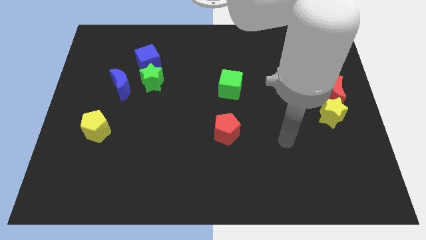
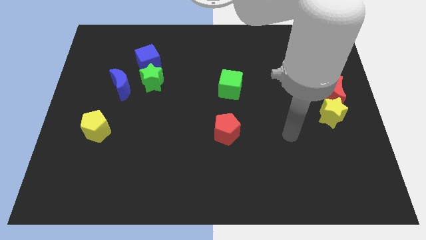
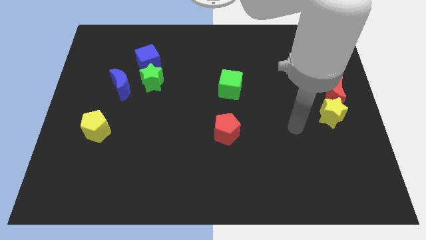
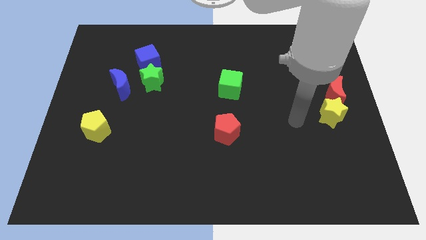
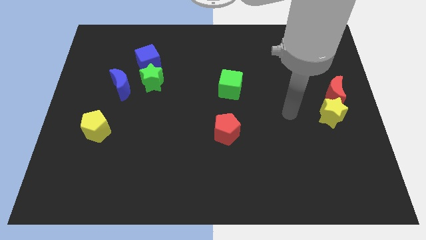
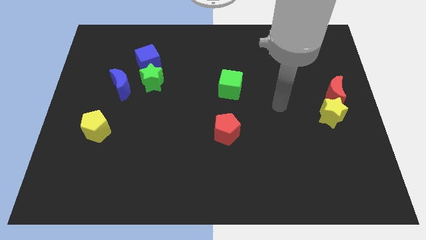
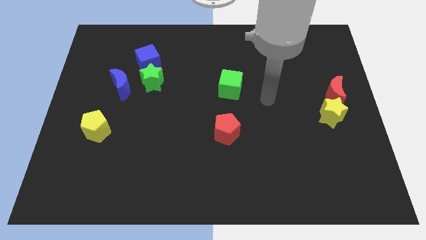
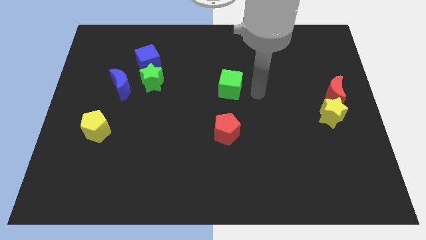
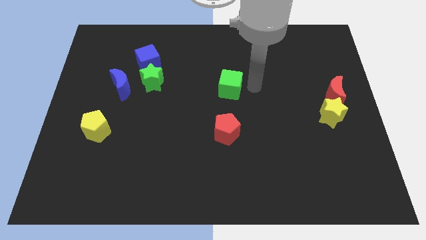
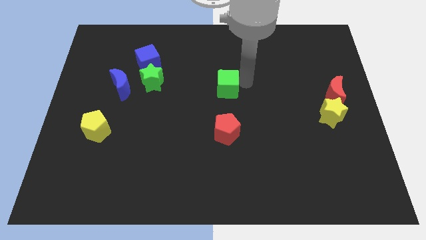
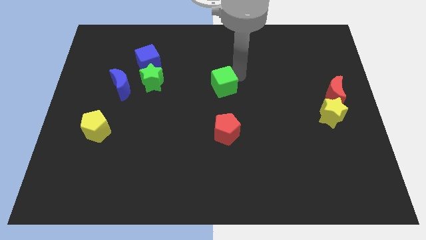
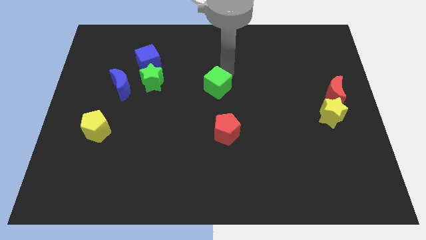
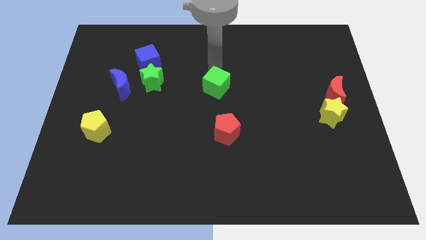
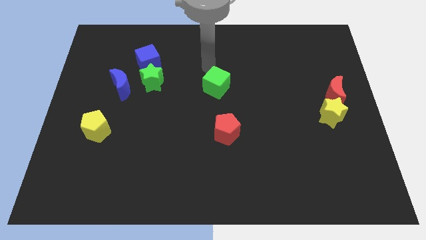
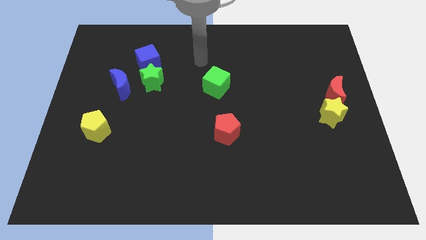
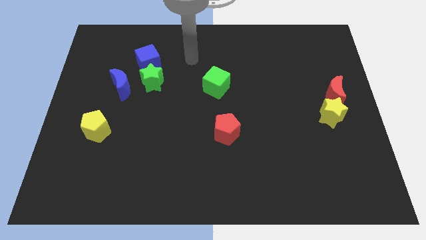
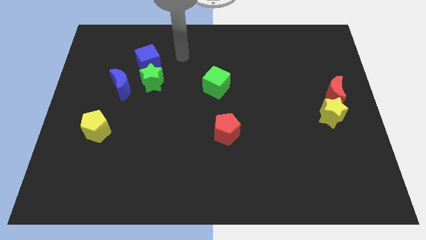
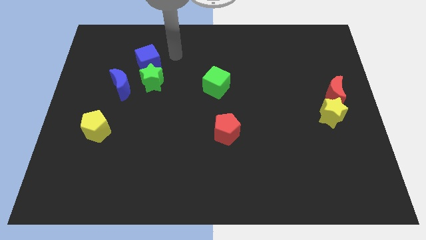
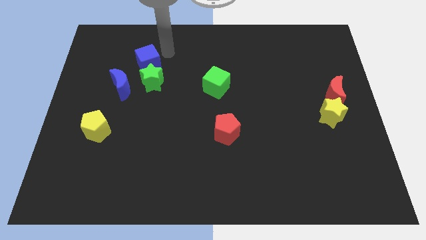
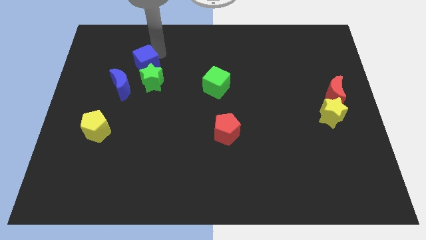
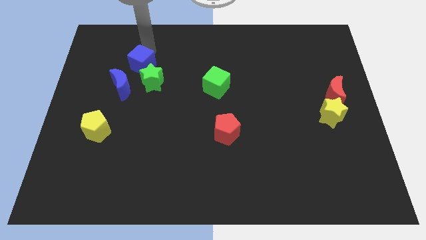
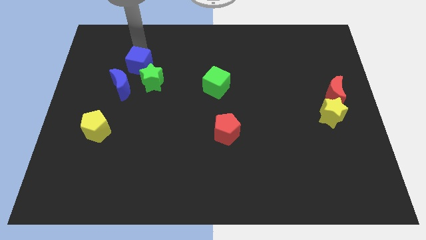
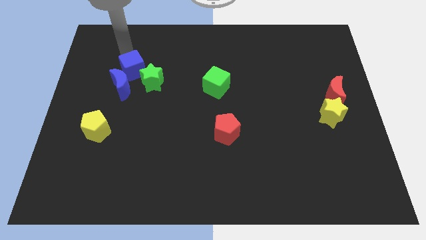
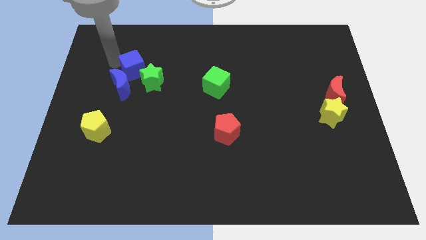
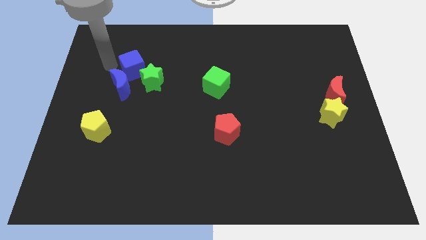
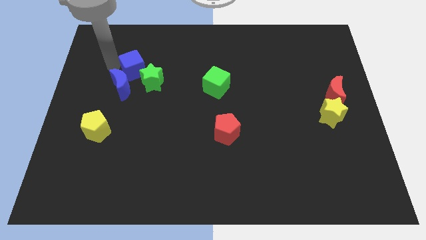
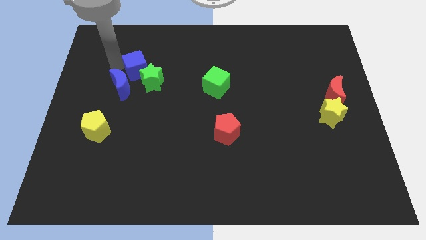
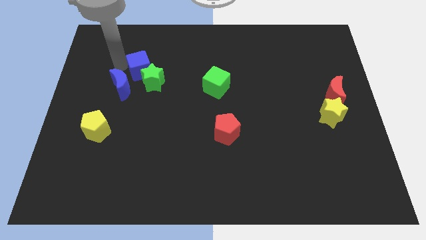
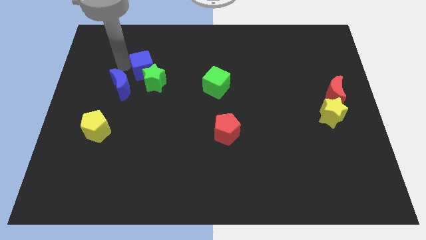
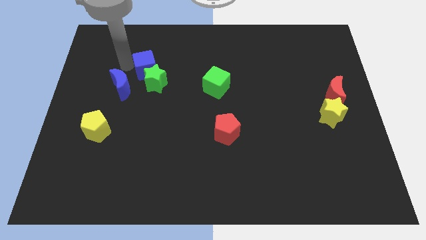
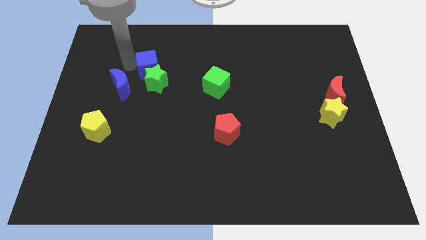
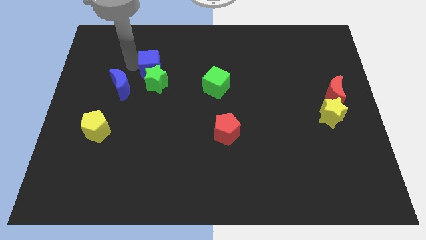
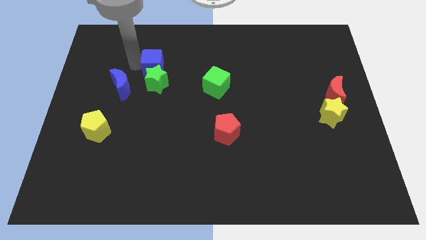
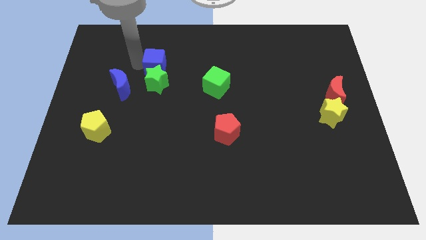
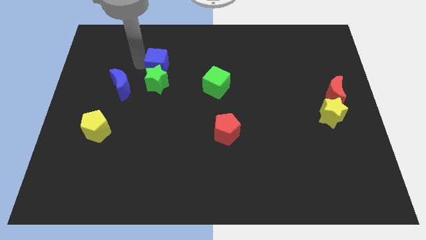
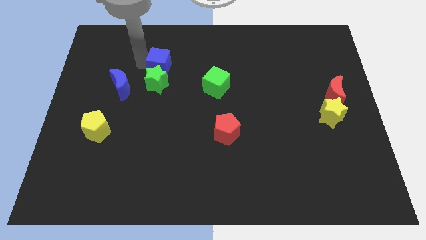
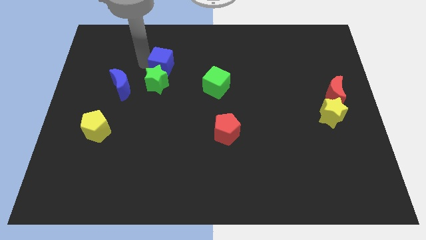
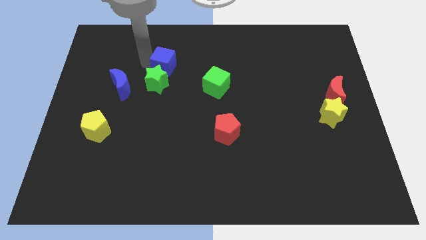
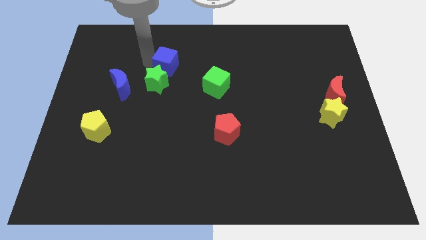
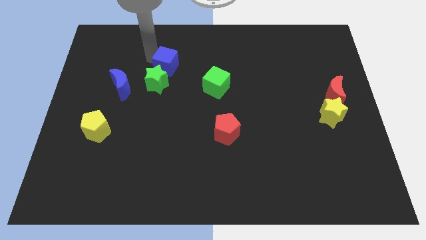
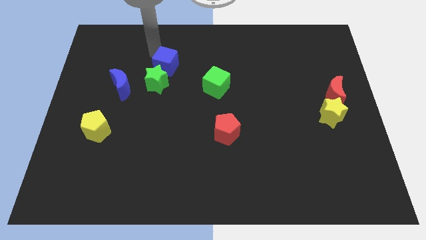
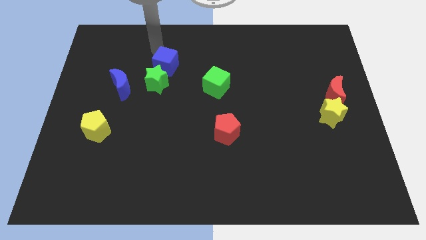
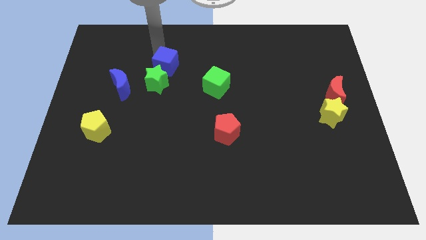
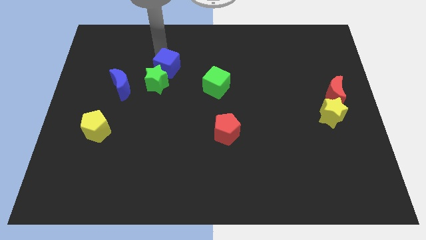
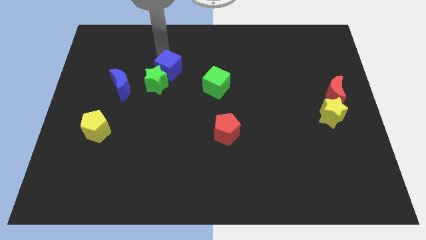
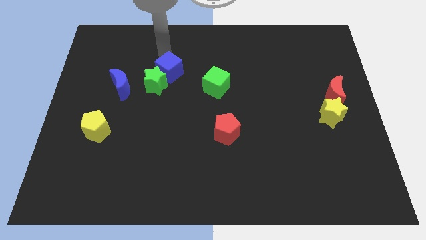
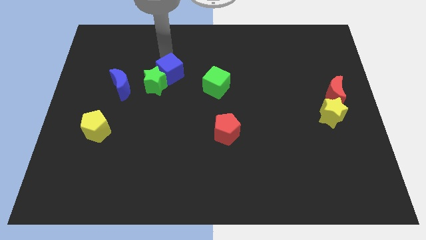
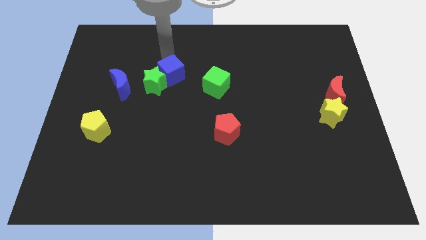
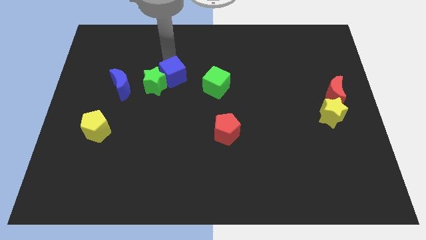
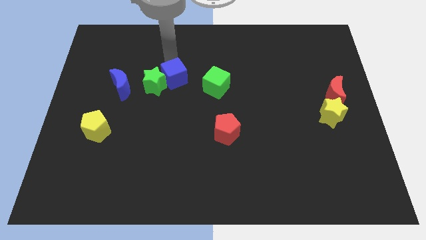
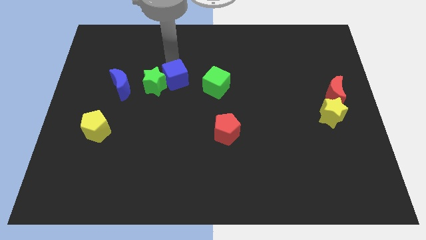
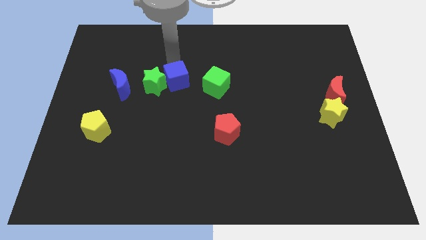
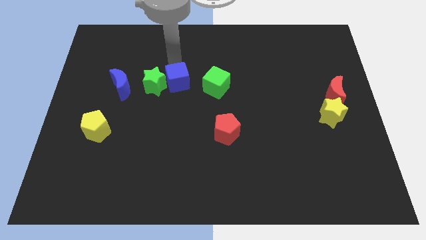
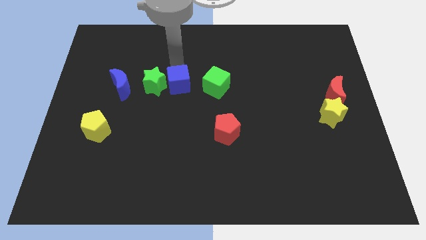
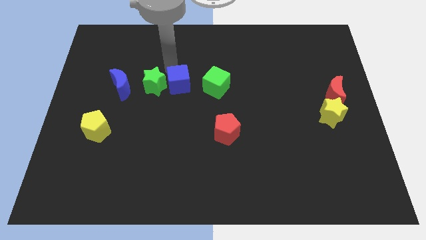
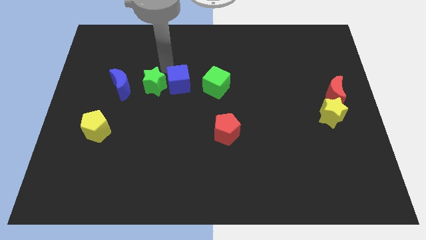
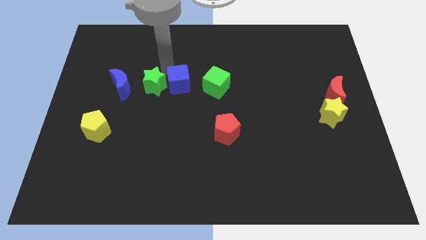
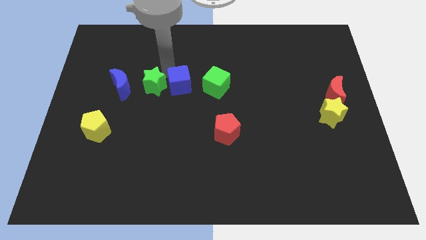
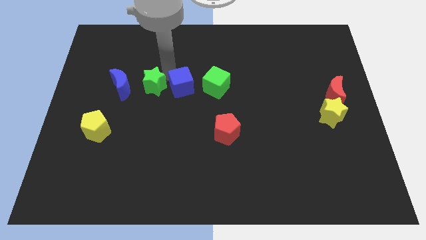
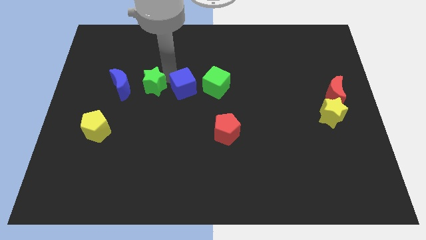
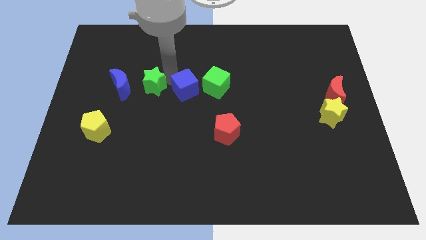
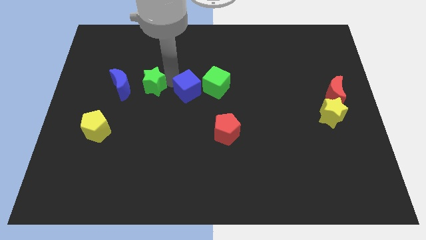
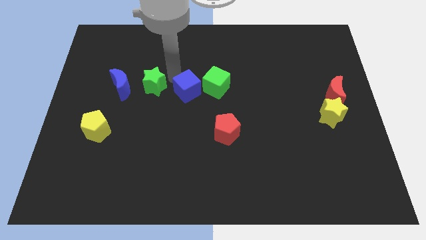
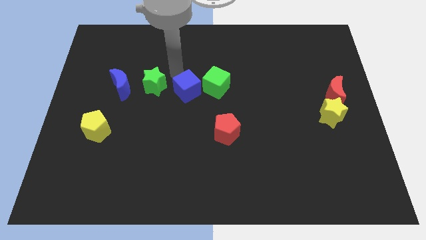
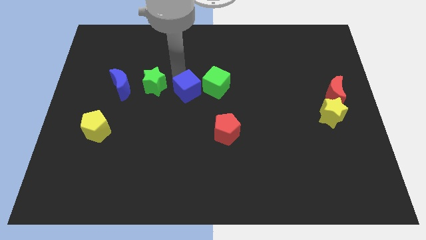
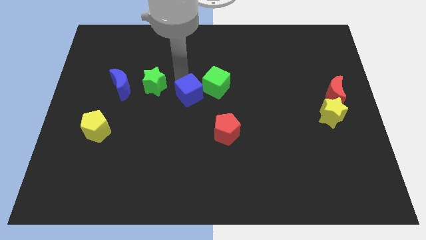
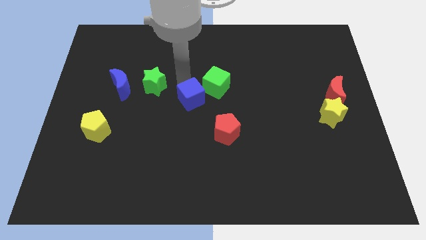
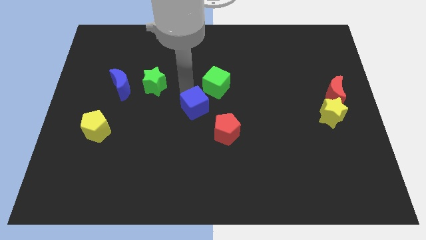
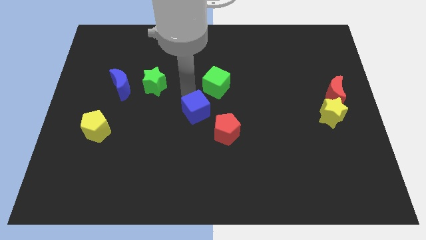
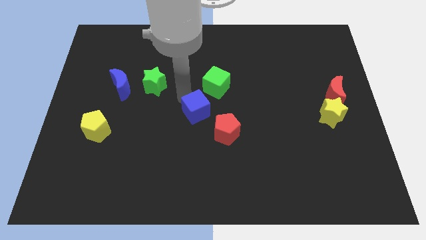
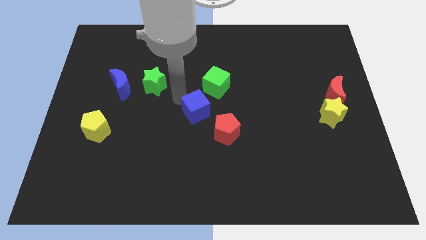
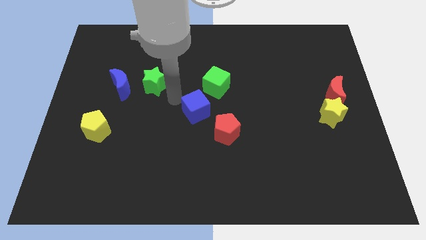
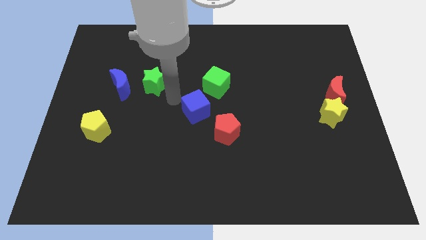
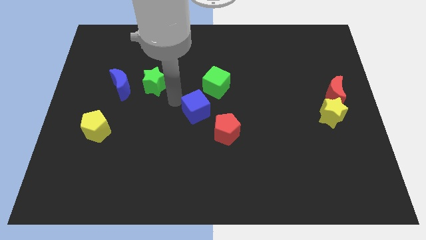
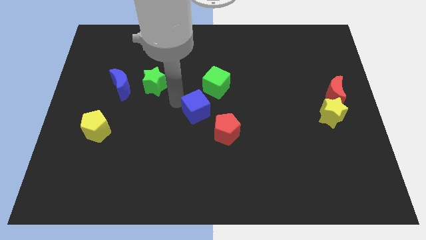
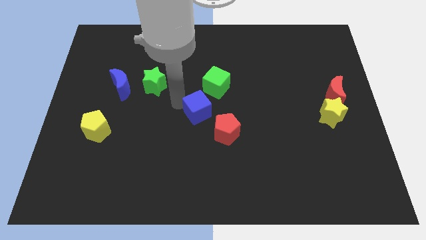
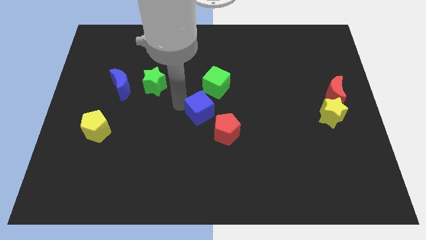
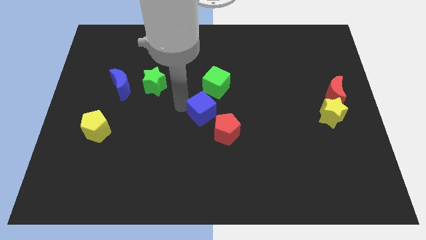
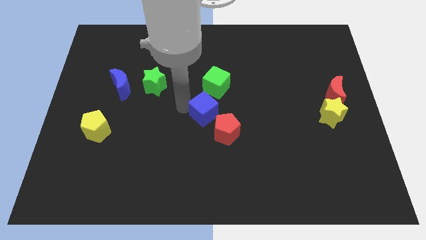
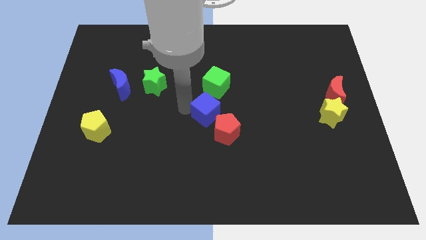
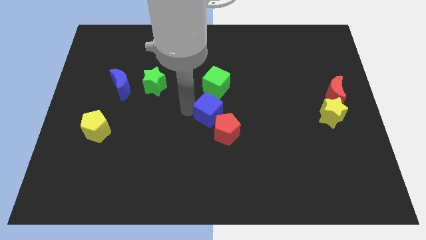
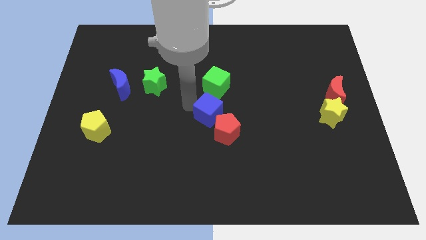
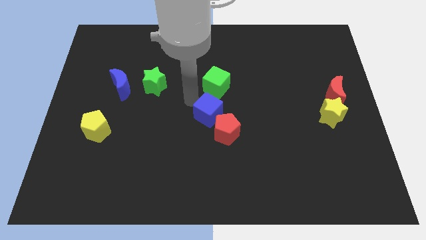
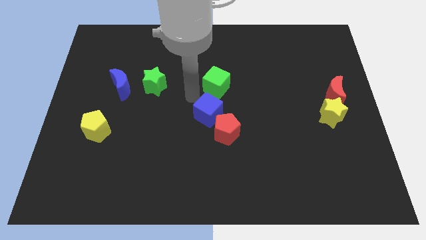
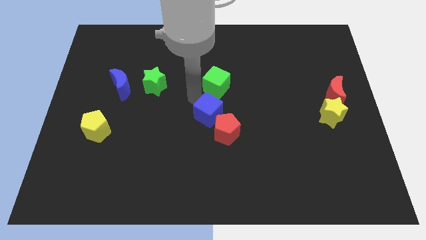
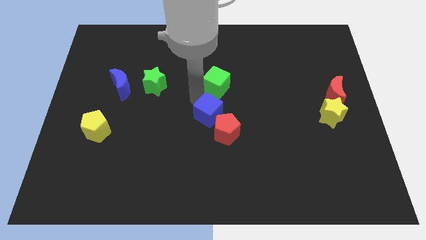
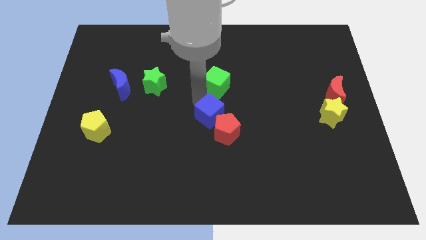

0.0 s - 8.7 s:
push the blue cube to the red pentagon
